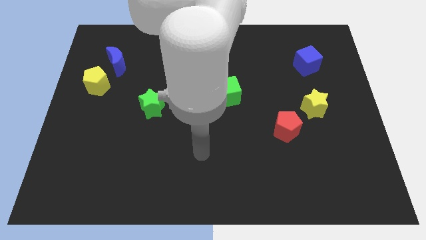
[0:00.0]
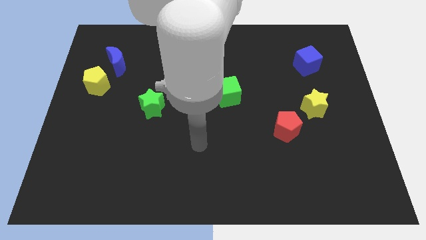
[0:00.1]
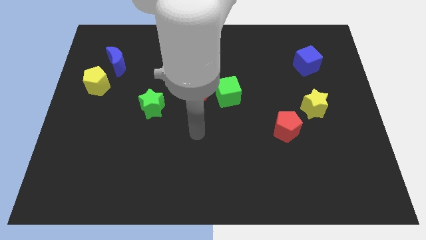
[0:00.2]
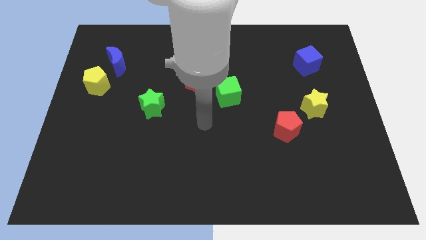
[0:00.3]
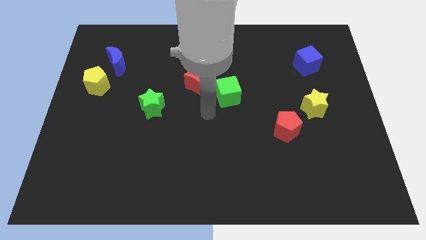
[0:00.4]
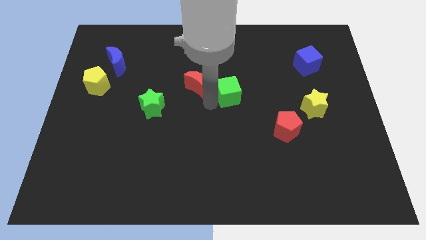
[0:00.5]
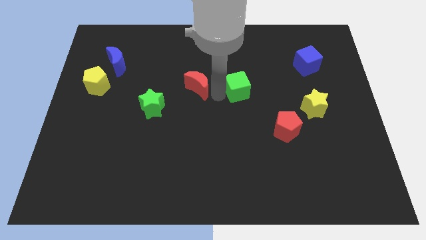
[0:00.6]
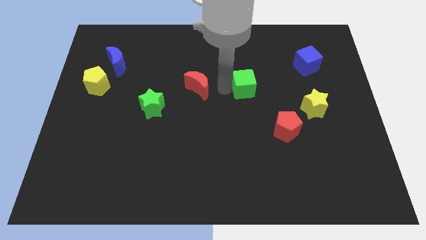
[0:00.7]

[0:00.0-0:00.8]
separate the red moon from the green cube

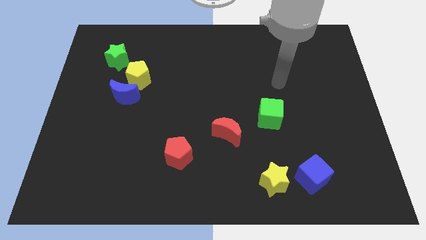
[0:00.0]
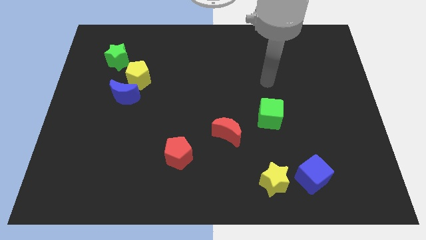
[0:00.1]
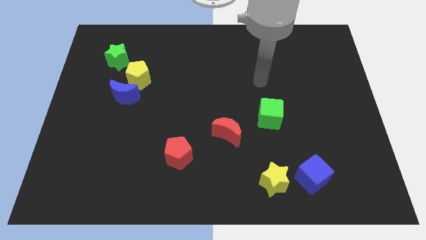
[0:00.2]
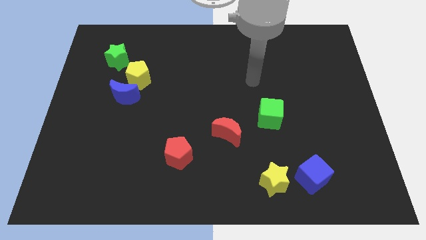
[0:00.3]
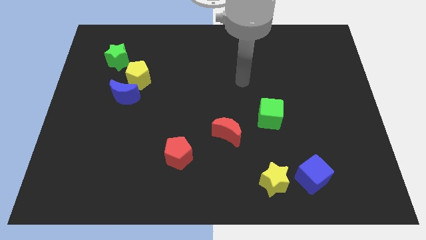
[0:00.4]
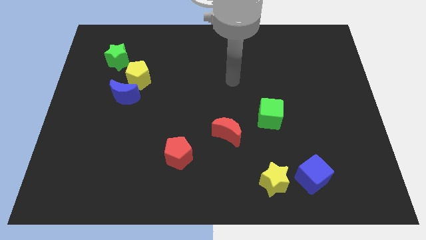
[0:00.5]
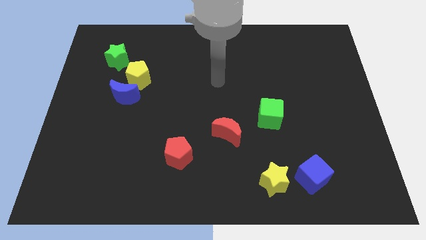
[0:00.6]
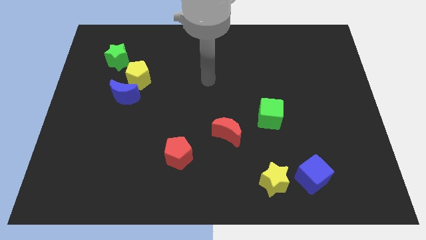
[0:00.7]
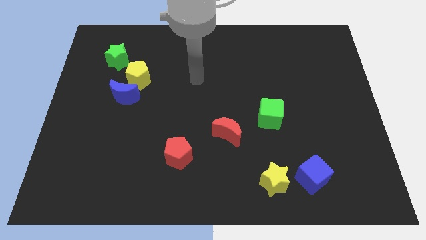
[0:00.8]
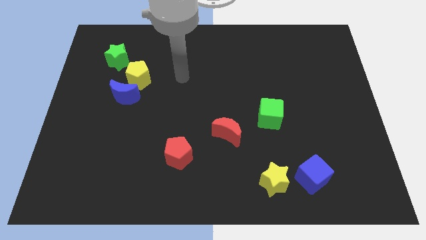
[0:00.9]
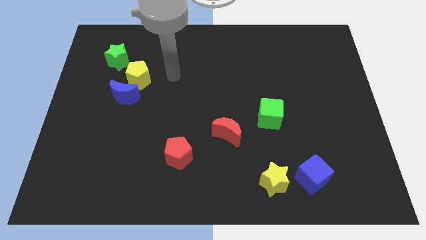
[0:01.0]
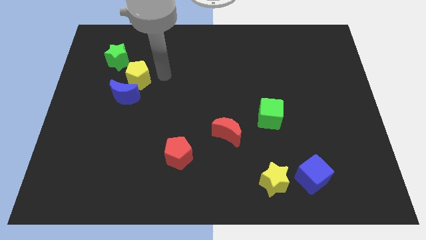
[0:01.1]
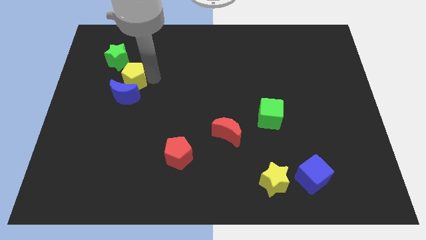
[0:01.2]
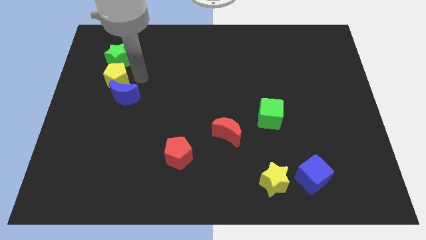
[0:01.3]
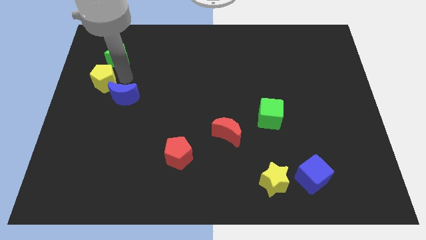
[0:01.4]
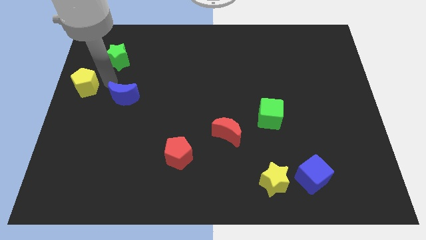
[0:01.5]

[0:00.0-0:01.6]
pull the blue moon apart from the yellow pentagon

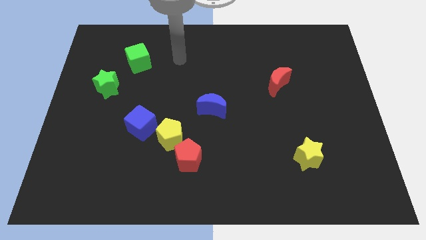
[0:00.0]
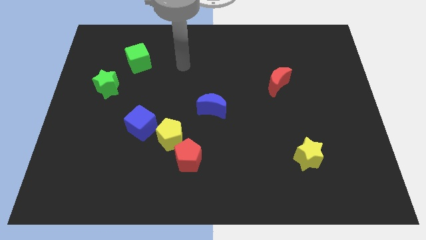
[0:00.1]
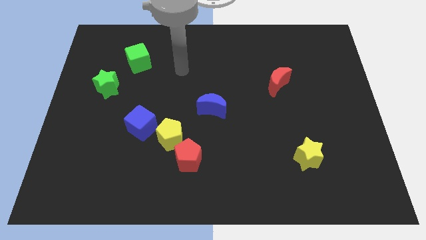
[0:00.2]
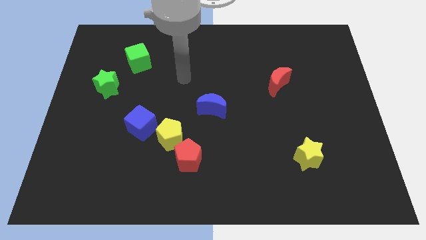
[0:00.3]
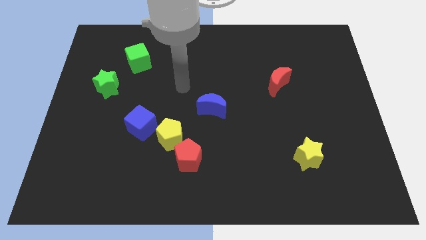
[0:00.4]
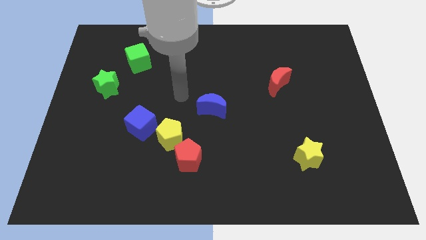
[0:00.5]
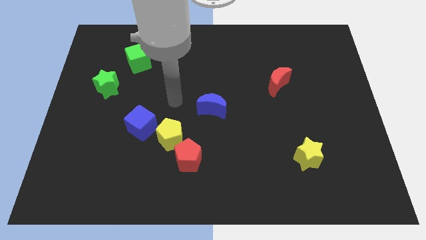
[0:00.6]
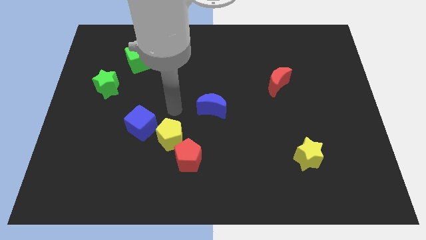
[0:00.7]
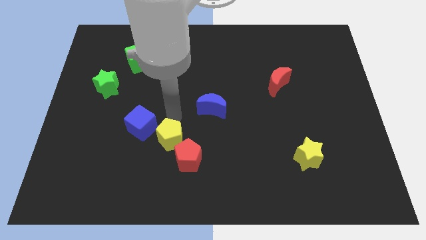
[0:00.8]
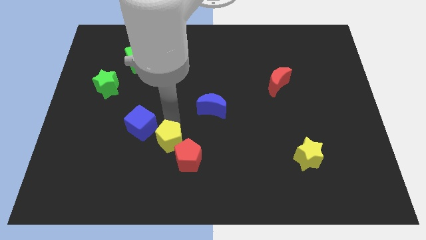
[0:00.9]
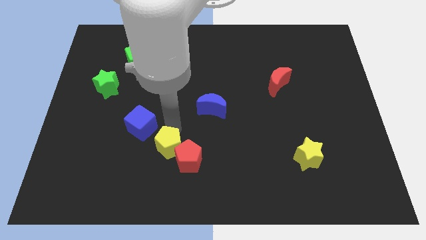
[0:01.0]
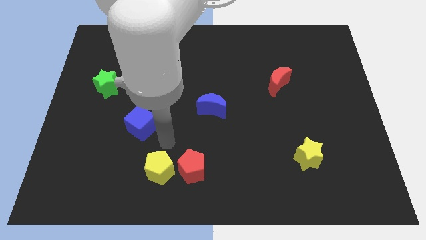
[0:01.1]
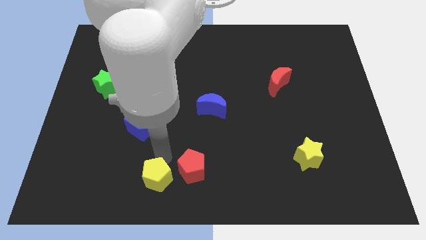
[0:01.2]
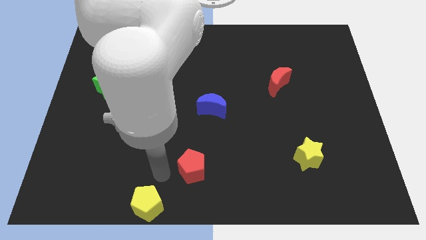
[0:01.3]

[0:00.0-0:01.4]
pull the red pentagon apart from the yellow pentagon

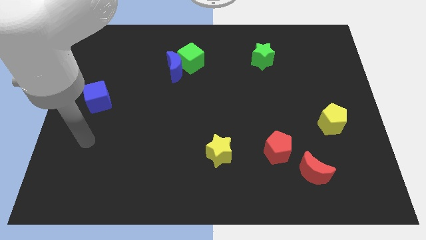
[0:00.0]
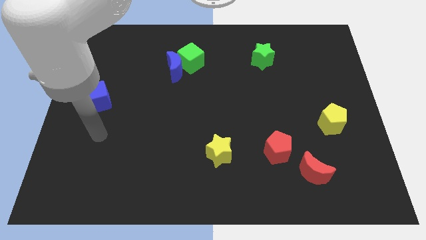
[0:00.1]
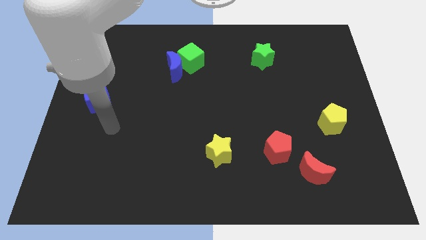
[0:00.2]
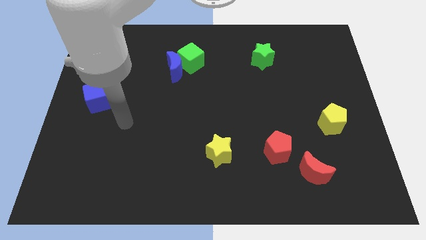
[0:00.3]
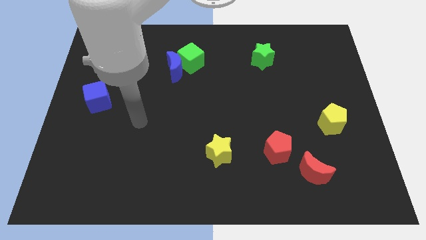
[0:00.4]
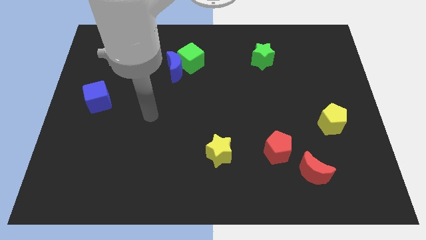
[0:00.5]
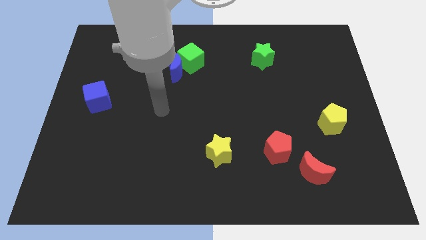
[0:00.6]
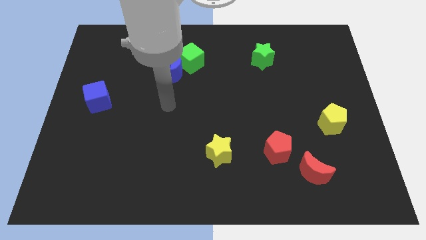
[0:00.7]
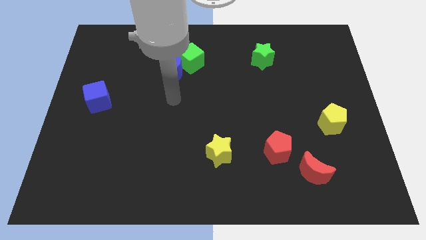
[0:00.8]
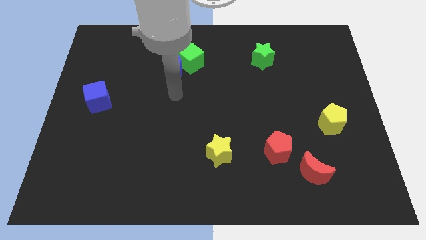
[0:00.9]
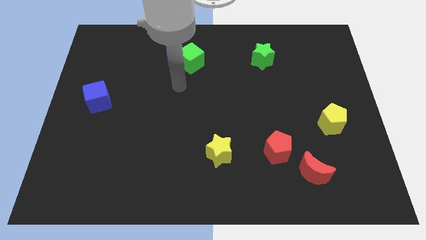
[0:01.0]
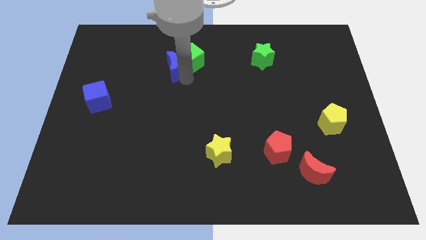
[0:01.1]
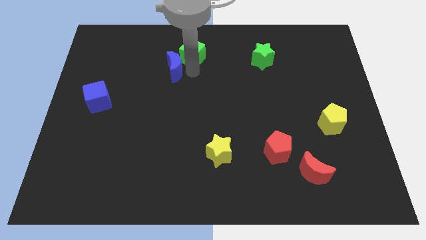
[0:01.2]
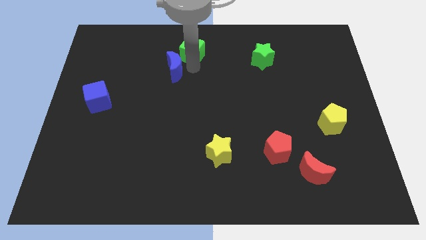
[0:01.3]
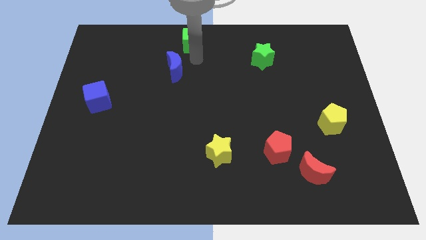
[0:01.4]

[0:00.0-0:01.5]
pull the blue moon apart from the green cube

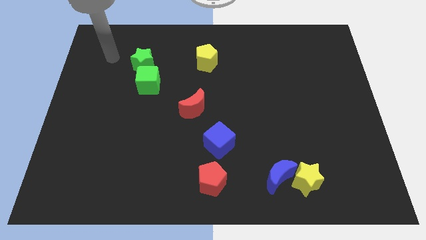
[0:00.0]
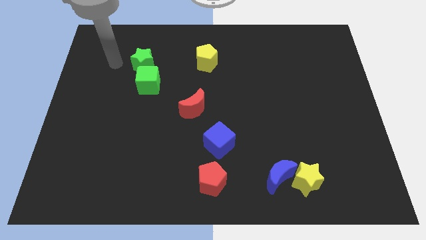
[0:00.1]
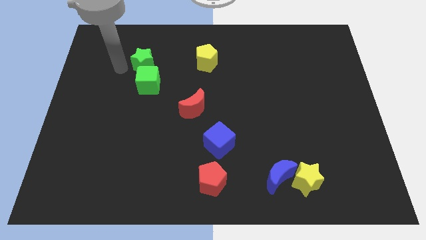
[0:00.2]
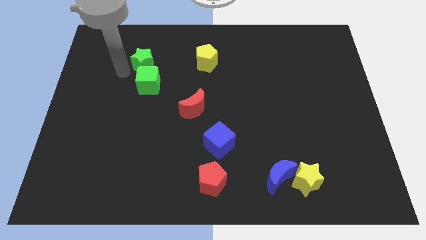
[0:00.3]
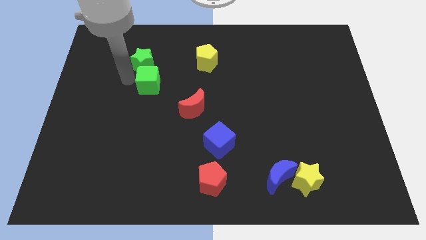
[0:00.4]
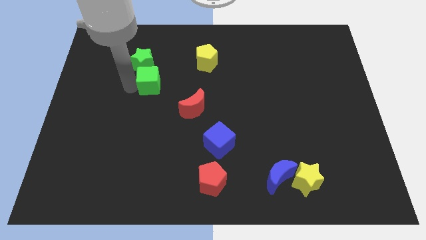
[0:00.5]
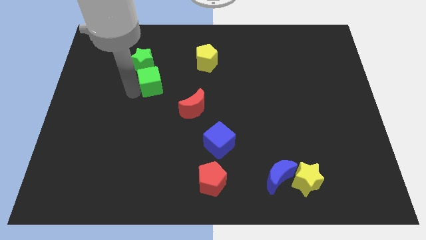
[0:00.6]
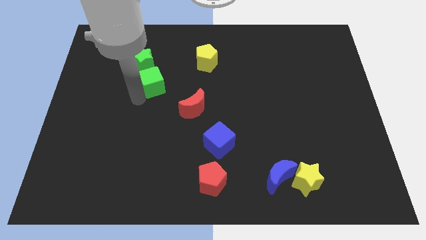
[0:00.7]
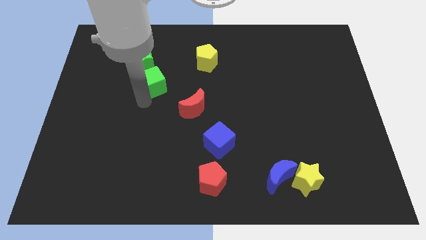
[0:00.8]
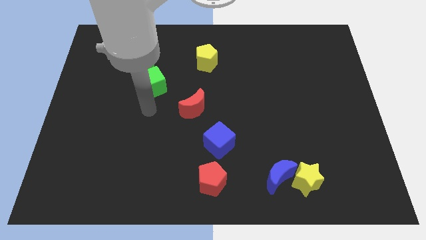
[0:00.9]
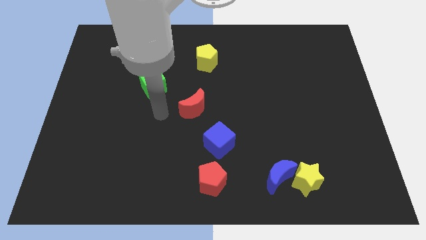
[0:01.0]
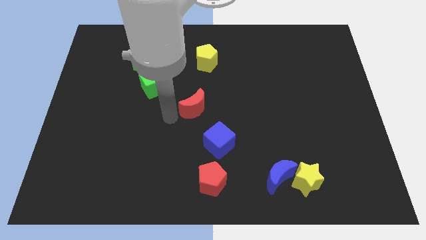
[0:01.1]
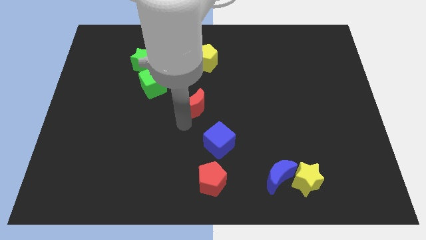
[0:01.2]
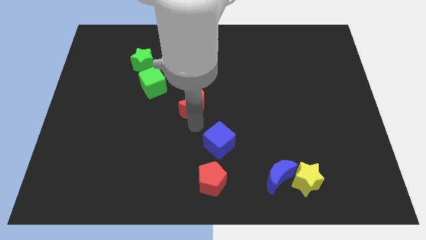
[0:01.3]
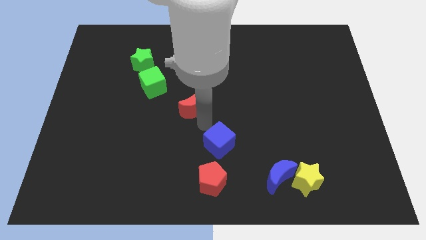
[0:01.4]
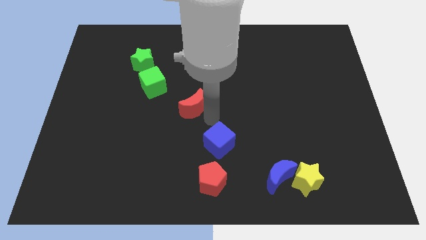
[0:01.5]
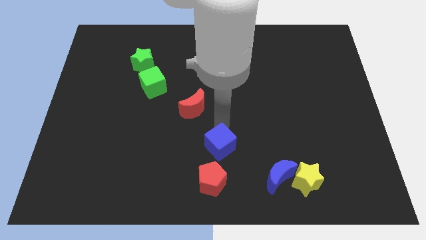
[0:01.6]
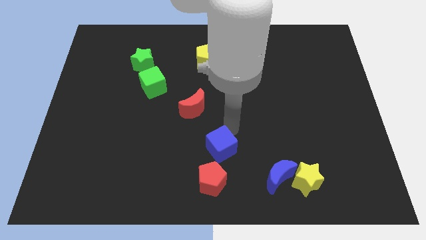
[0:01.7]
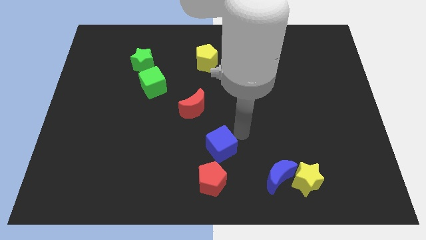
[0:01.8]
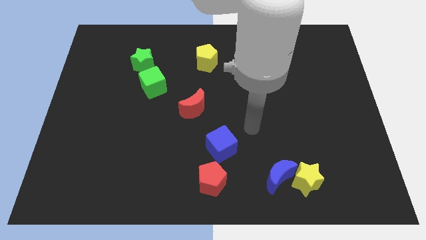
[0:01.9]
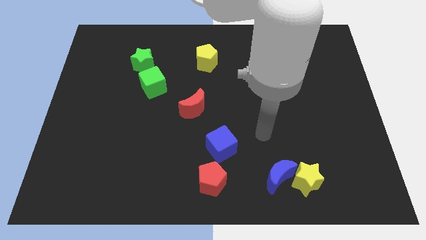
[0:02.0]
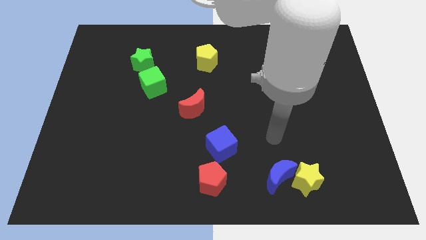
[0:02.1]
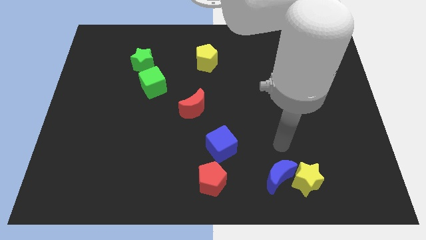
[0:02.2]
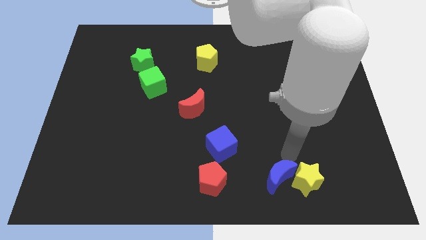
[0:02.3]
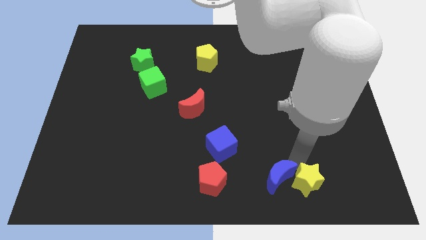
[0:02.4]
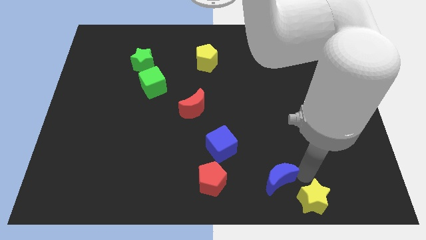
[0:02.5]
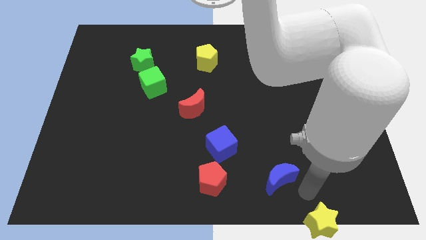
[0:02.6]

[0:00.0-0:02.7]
move the blue moon away from the yellow star

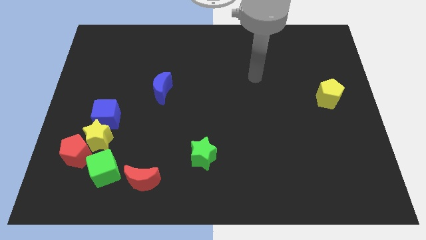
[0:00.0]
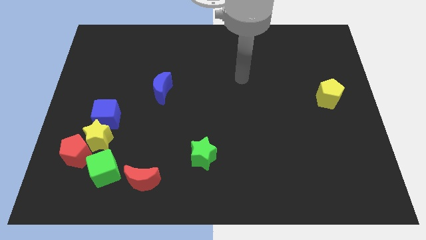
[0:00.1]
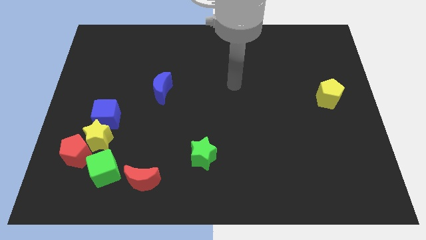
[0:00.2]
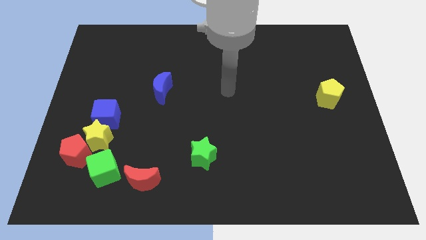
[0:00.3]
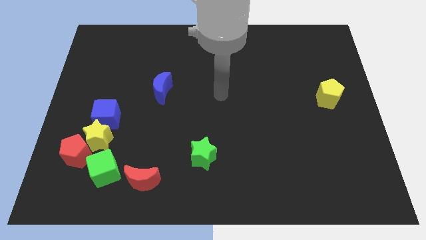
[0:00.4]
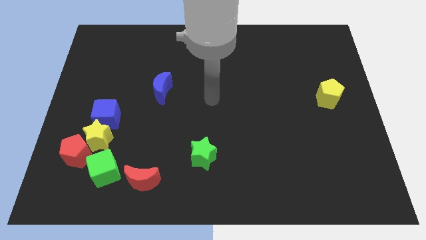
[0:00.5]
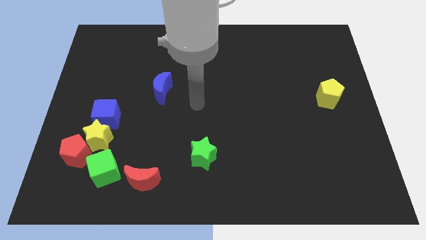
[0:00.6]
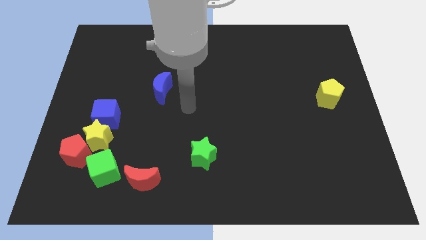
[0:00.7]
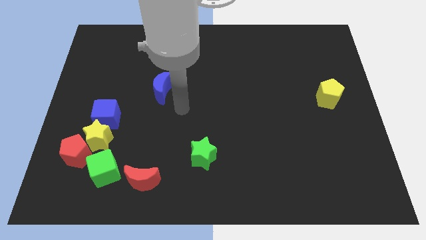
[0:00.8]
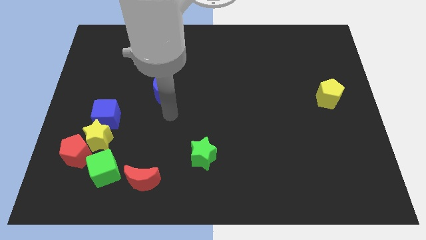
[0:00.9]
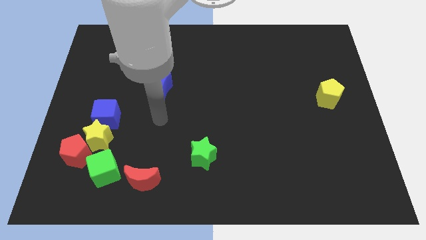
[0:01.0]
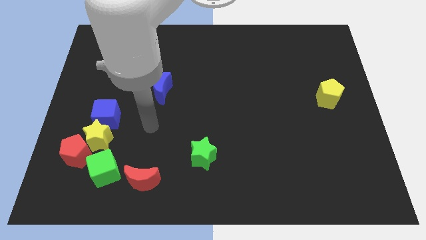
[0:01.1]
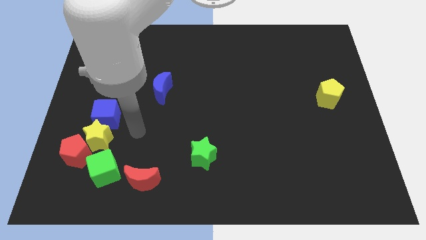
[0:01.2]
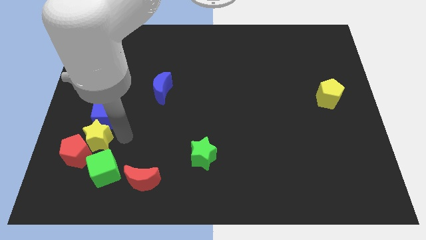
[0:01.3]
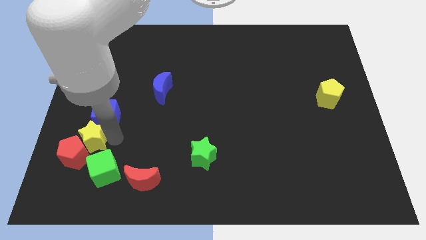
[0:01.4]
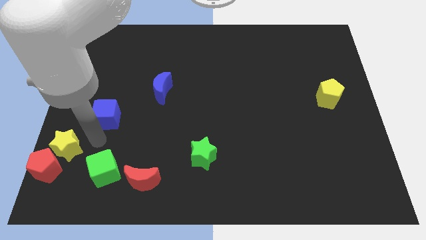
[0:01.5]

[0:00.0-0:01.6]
move the blue cube away from the yellow star
